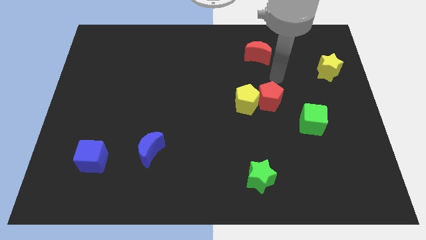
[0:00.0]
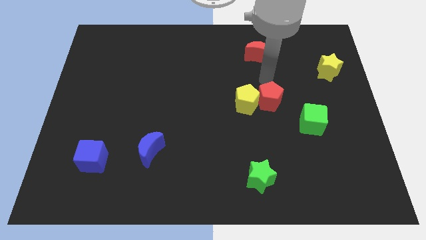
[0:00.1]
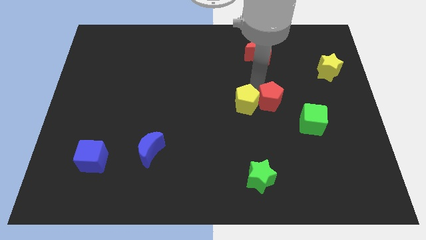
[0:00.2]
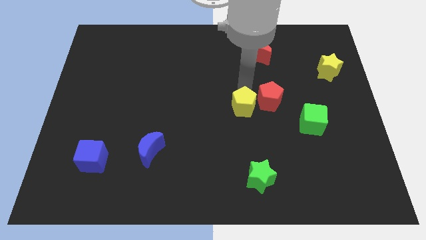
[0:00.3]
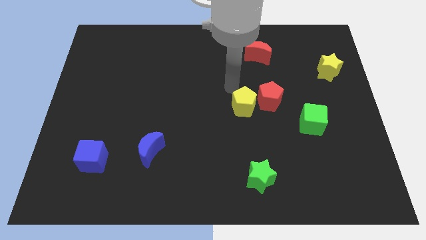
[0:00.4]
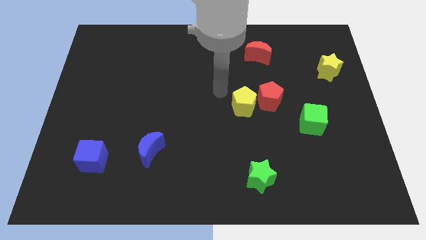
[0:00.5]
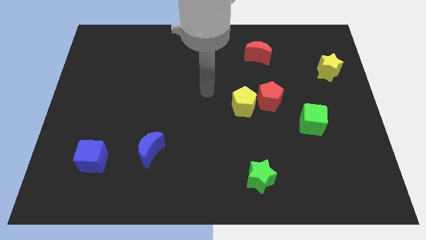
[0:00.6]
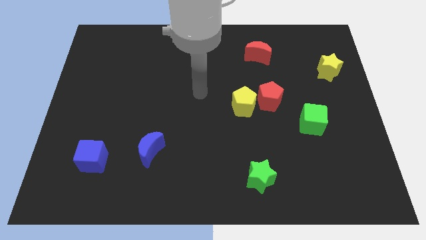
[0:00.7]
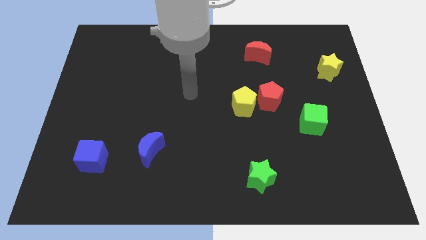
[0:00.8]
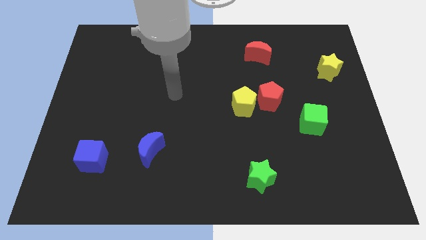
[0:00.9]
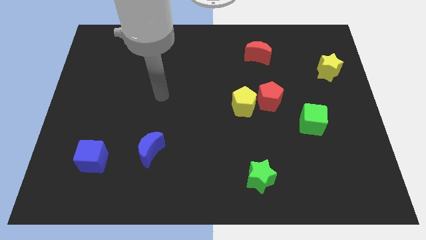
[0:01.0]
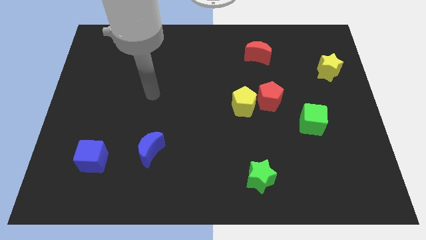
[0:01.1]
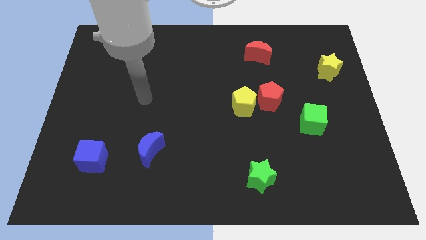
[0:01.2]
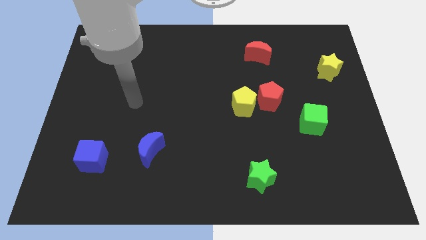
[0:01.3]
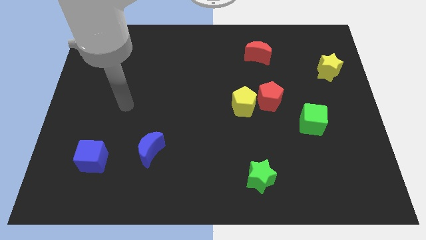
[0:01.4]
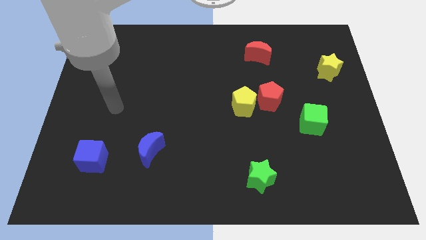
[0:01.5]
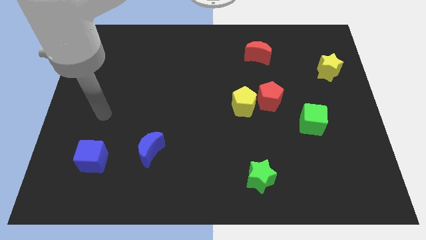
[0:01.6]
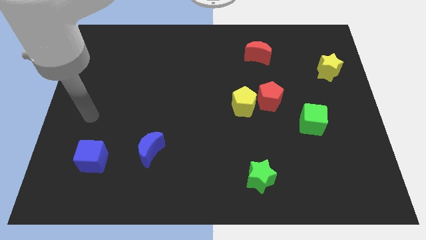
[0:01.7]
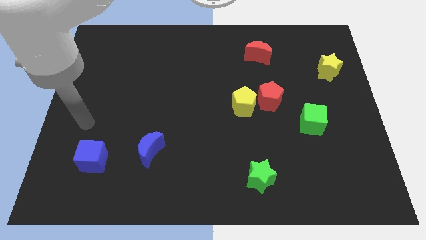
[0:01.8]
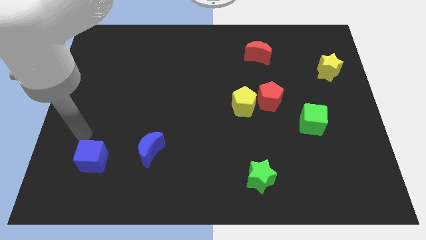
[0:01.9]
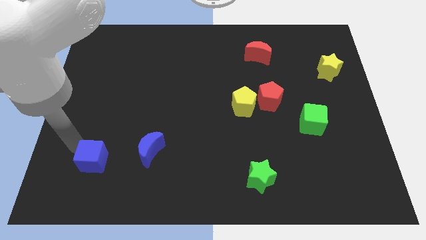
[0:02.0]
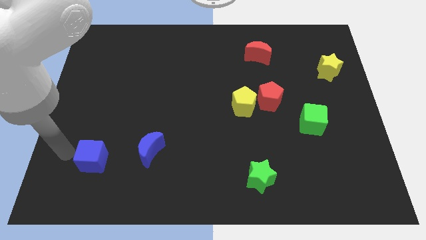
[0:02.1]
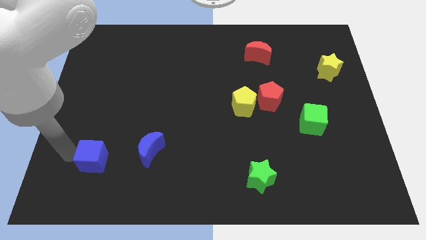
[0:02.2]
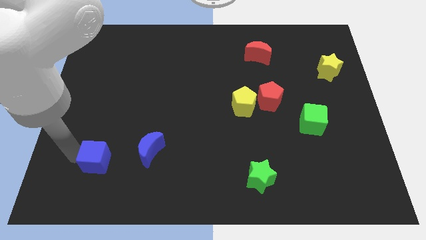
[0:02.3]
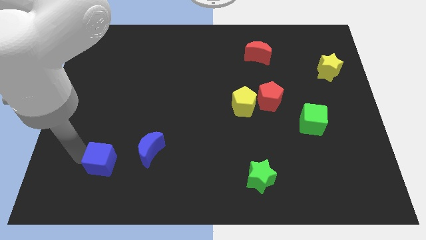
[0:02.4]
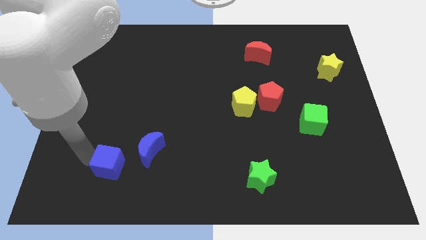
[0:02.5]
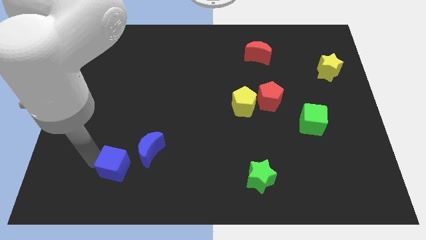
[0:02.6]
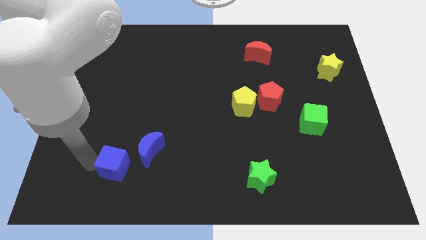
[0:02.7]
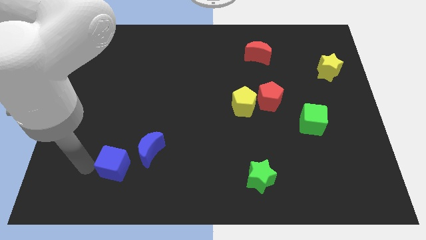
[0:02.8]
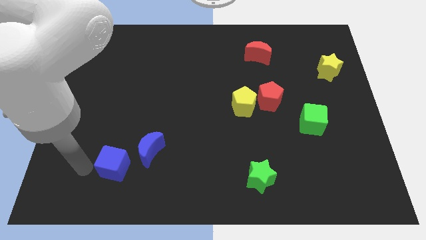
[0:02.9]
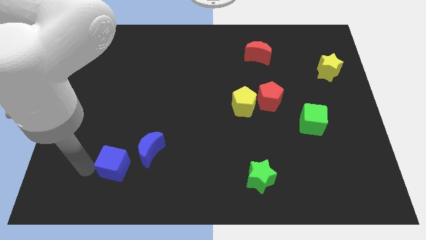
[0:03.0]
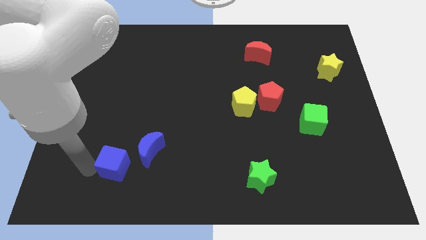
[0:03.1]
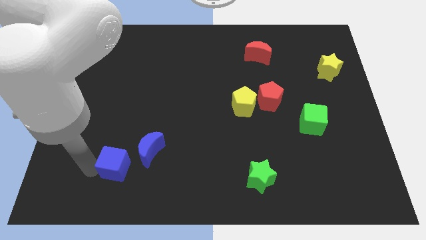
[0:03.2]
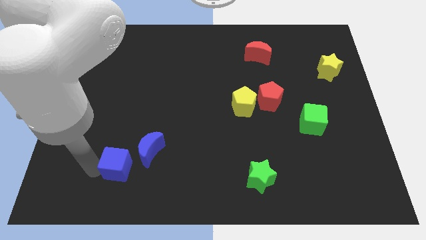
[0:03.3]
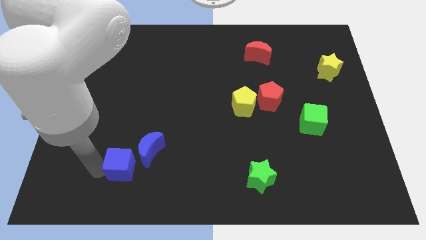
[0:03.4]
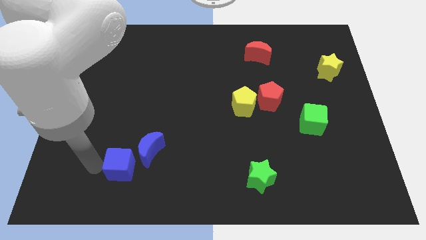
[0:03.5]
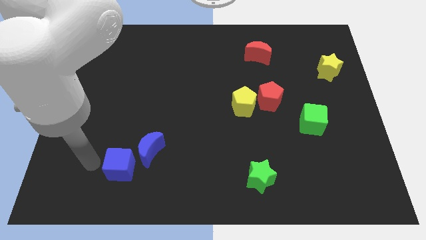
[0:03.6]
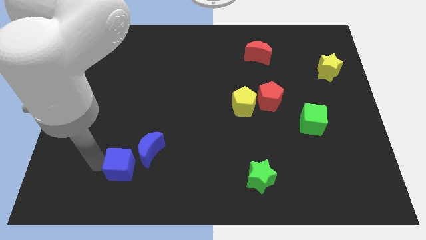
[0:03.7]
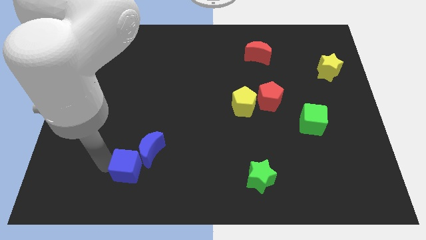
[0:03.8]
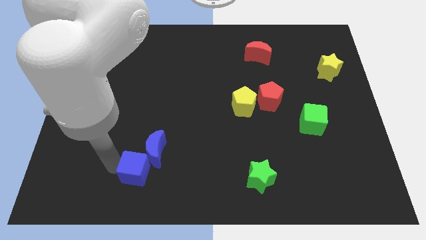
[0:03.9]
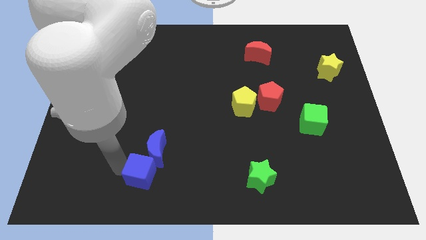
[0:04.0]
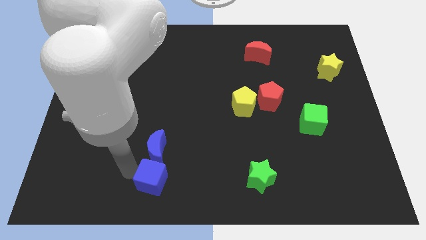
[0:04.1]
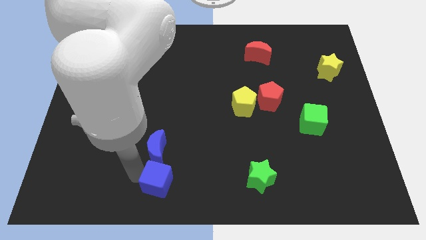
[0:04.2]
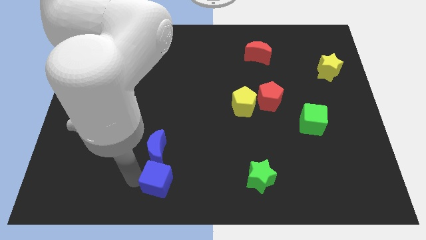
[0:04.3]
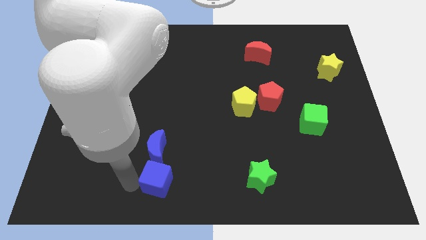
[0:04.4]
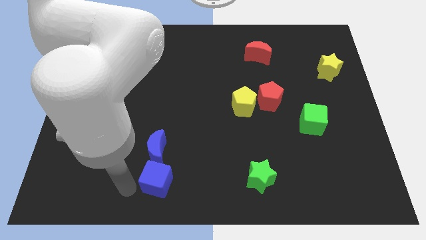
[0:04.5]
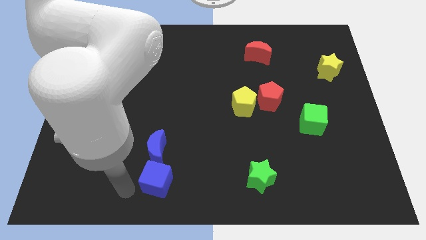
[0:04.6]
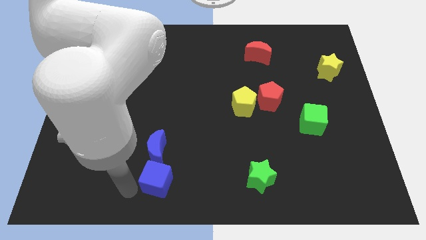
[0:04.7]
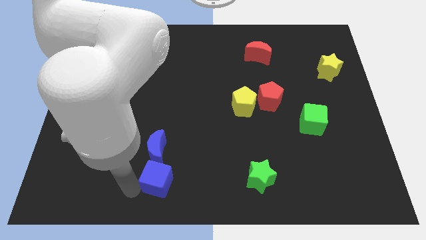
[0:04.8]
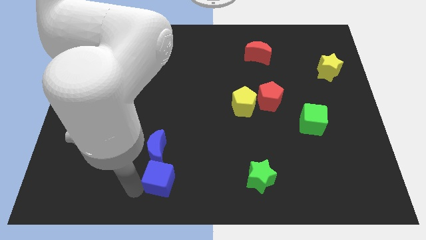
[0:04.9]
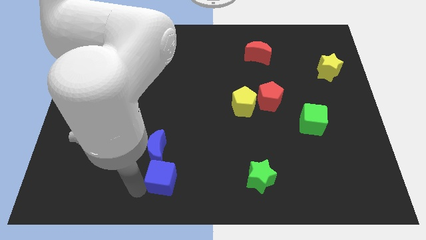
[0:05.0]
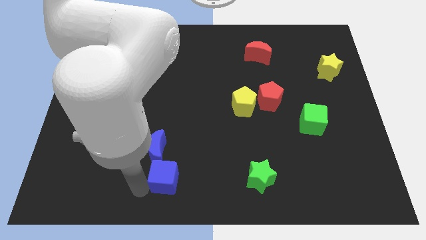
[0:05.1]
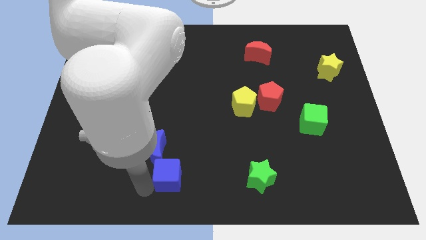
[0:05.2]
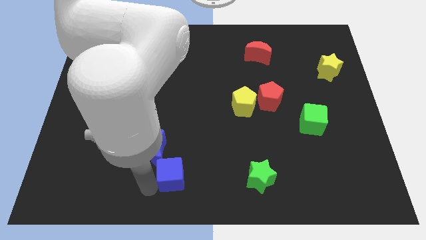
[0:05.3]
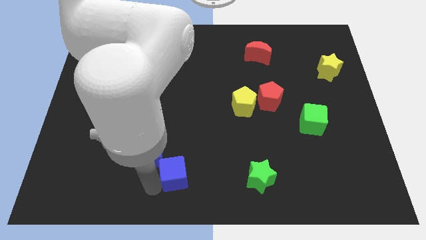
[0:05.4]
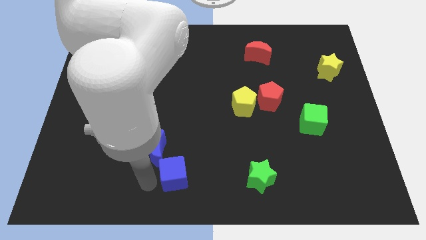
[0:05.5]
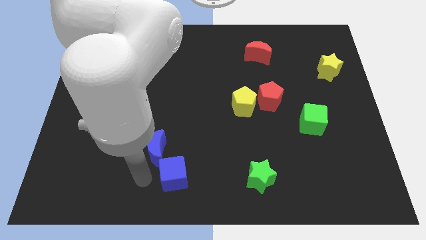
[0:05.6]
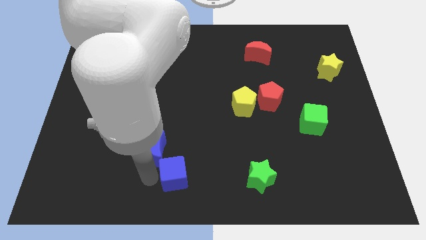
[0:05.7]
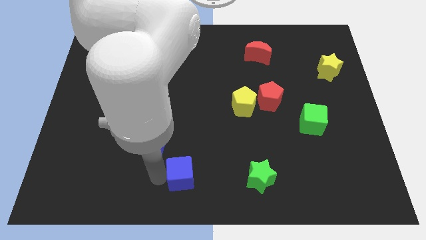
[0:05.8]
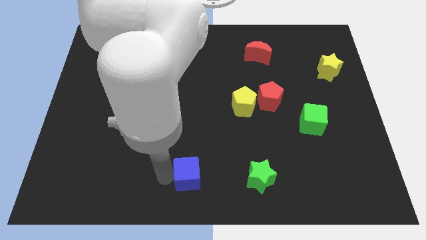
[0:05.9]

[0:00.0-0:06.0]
move the blue cube right

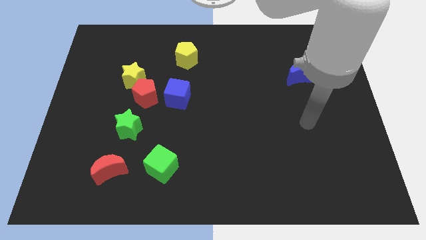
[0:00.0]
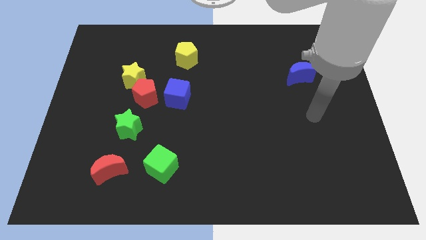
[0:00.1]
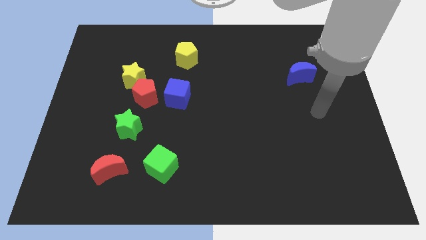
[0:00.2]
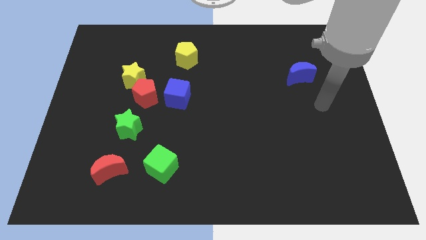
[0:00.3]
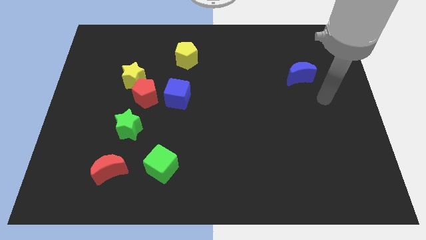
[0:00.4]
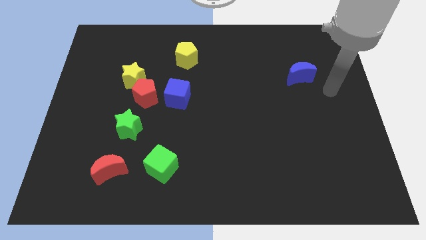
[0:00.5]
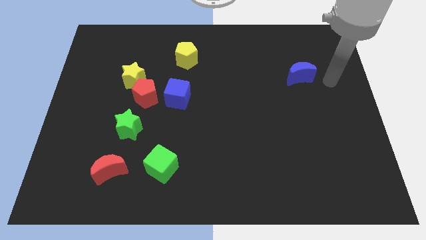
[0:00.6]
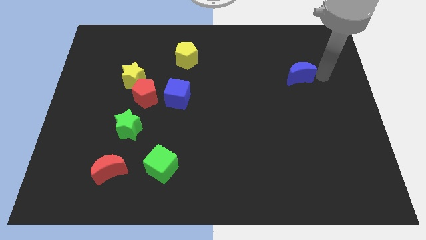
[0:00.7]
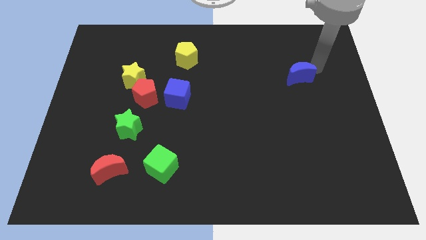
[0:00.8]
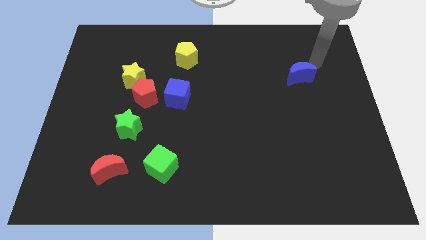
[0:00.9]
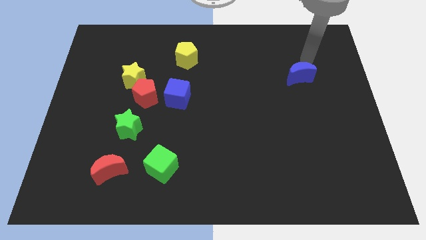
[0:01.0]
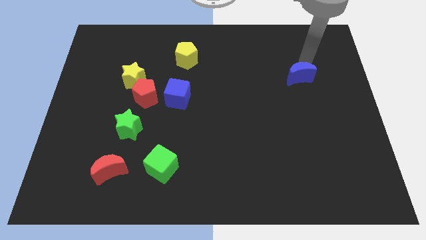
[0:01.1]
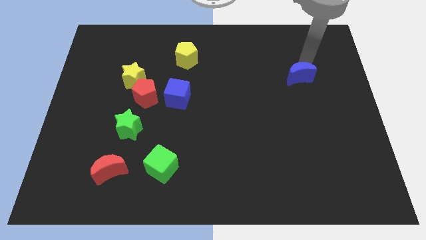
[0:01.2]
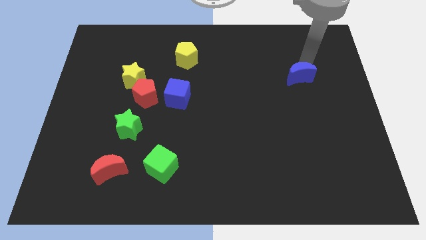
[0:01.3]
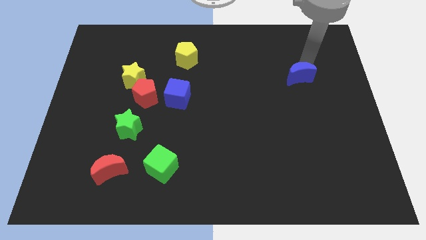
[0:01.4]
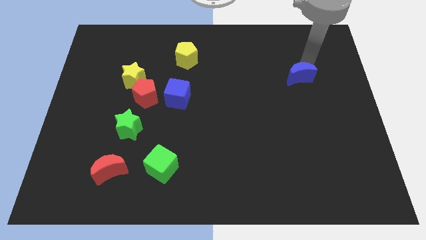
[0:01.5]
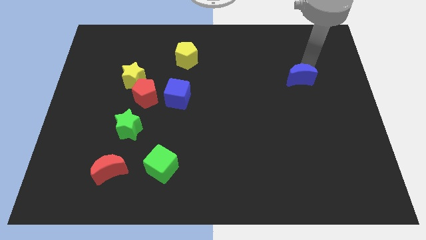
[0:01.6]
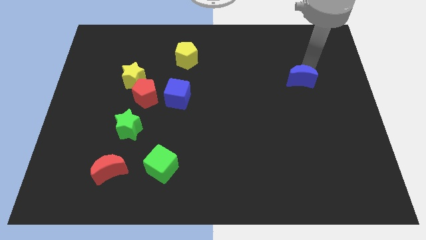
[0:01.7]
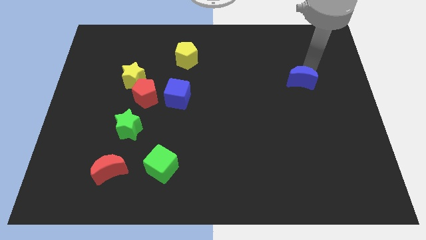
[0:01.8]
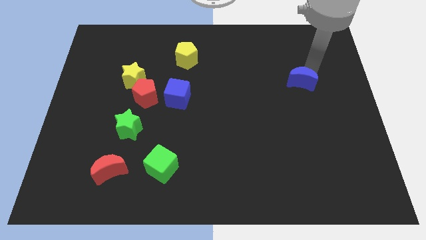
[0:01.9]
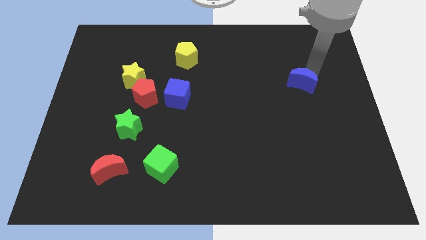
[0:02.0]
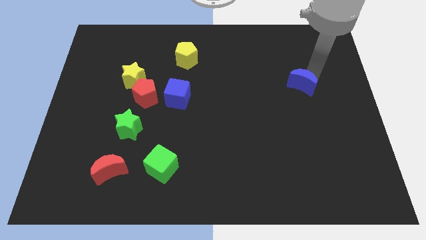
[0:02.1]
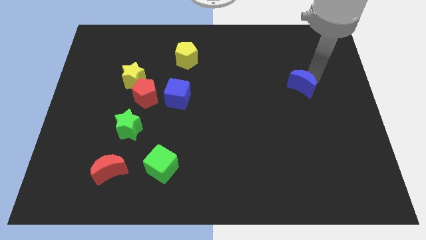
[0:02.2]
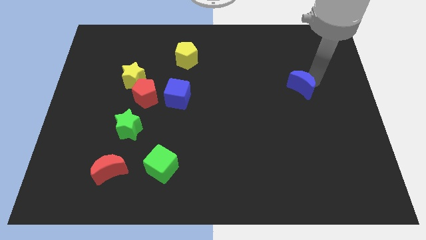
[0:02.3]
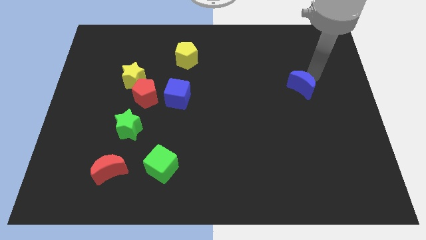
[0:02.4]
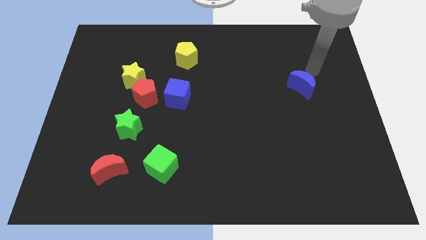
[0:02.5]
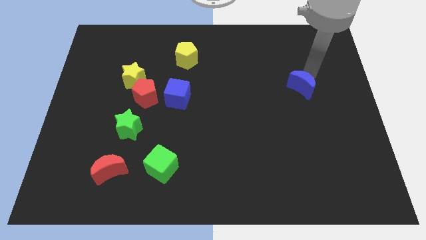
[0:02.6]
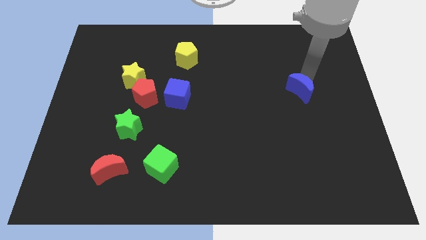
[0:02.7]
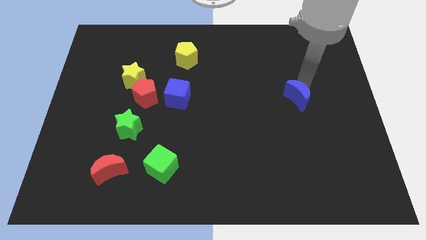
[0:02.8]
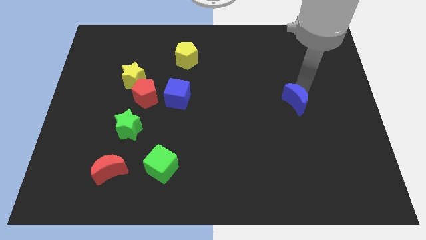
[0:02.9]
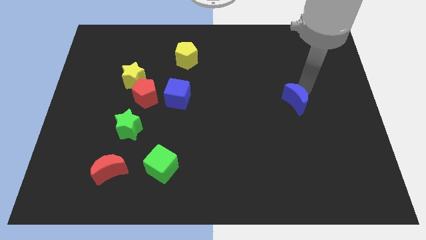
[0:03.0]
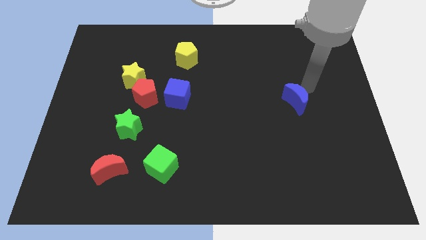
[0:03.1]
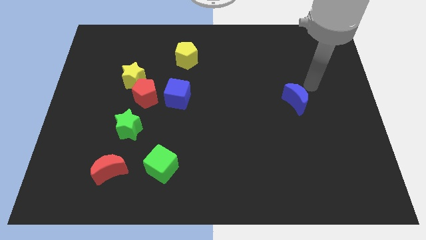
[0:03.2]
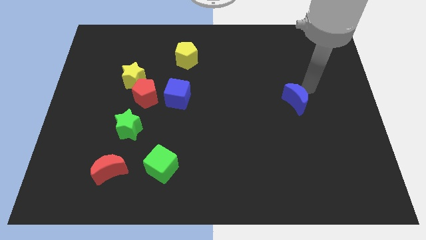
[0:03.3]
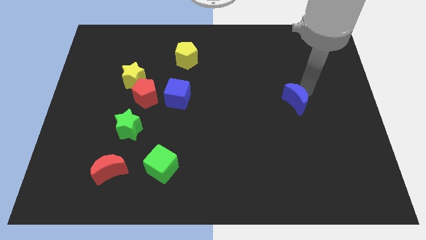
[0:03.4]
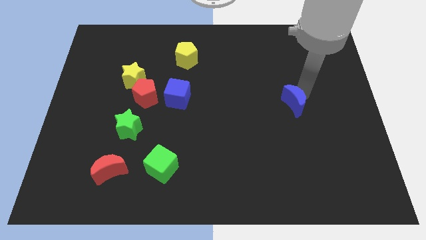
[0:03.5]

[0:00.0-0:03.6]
slide the blue moon downwards and to the left a little
